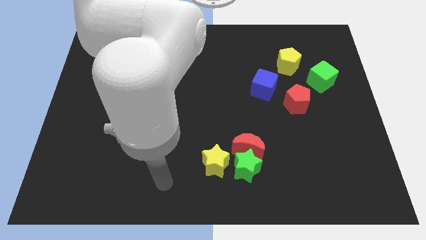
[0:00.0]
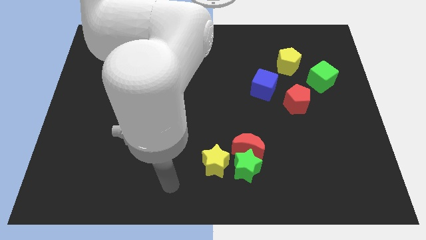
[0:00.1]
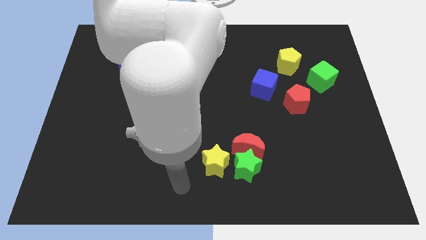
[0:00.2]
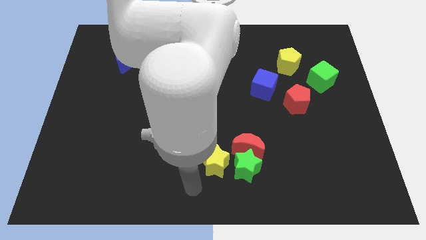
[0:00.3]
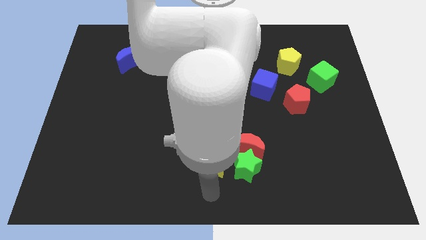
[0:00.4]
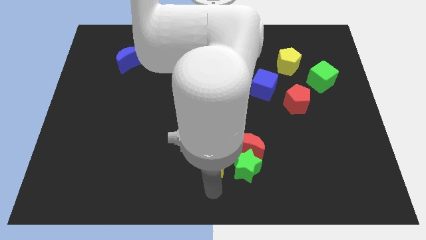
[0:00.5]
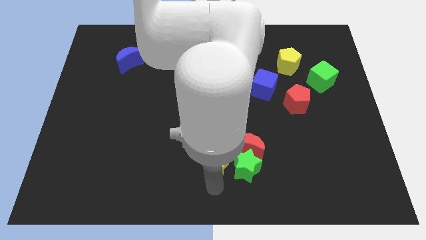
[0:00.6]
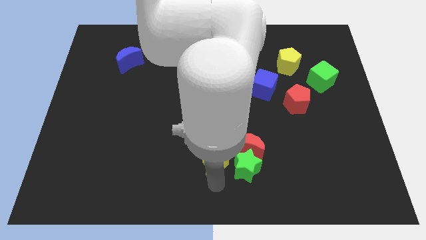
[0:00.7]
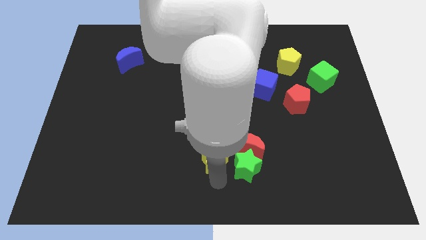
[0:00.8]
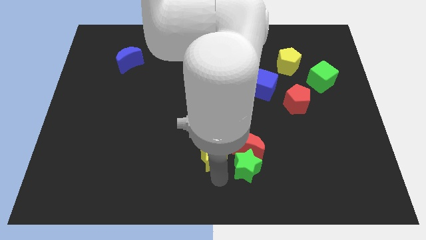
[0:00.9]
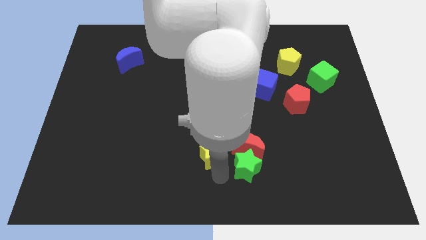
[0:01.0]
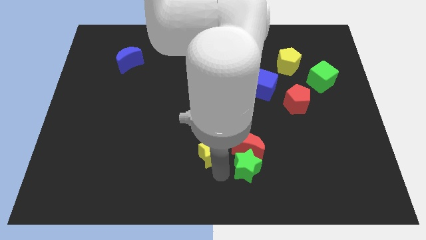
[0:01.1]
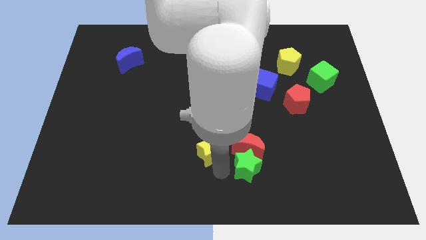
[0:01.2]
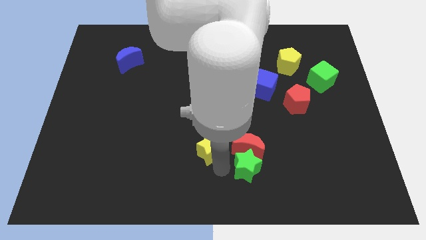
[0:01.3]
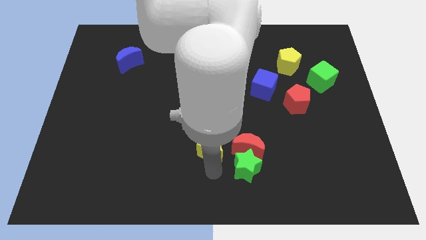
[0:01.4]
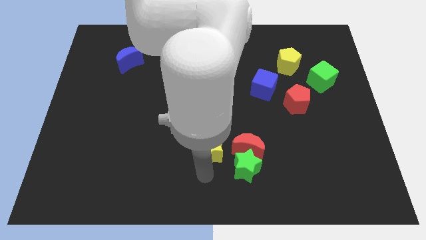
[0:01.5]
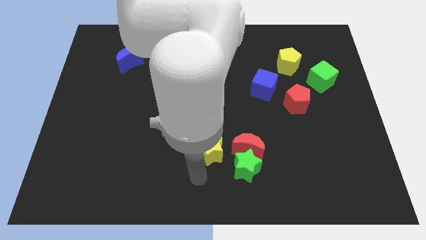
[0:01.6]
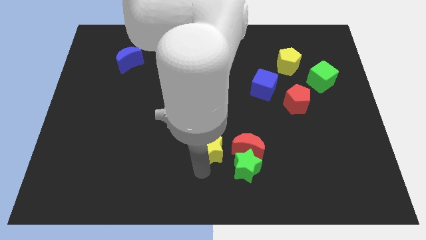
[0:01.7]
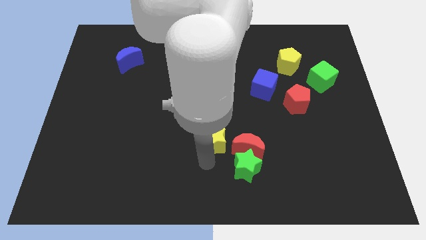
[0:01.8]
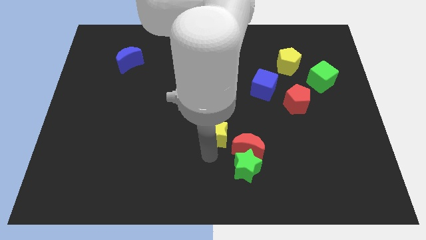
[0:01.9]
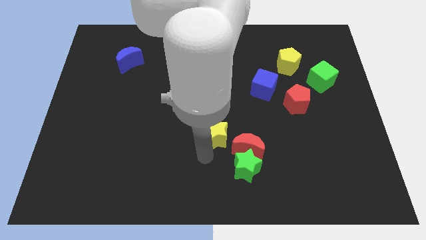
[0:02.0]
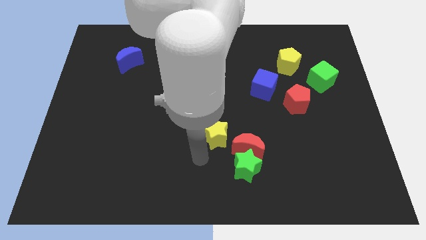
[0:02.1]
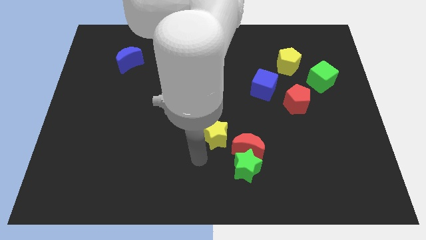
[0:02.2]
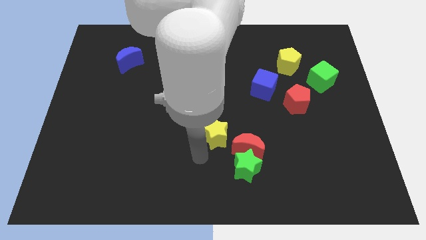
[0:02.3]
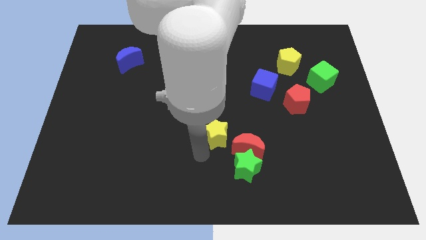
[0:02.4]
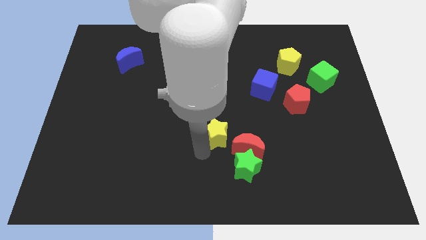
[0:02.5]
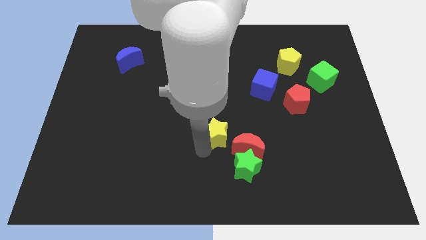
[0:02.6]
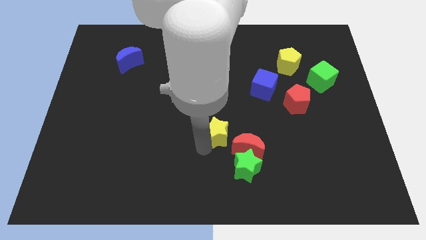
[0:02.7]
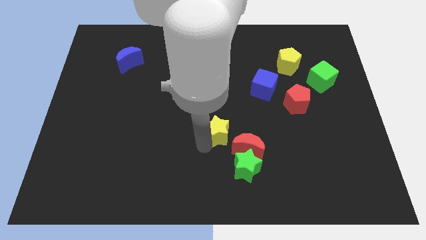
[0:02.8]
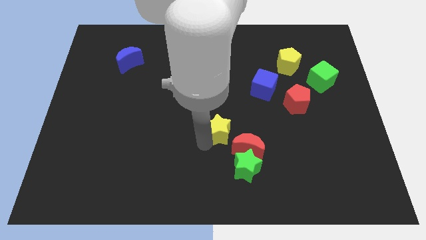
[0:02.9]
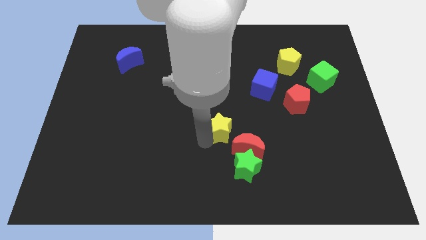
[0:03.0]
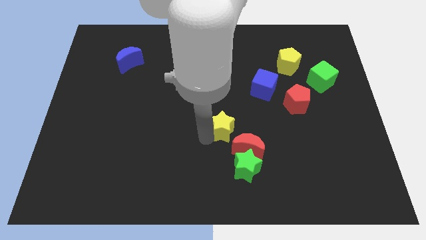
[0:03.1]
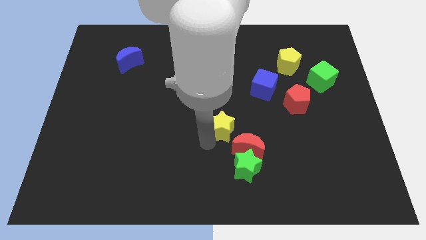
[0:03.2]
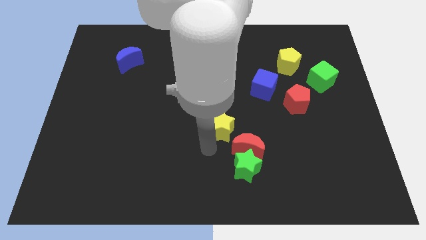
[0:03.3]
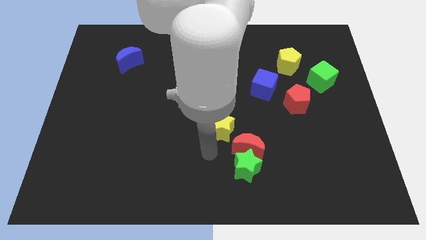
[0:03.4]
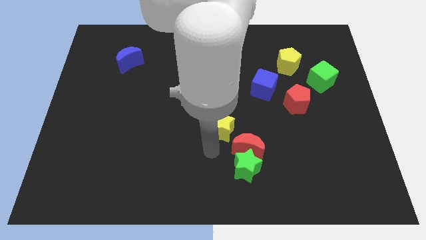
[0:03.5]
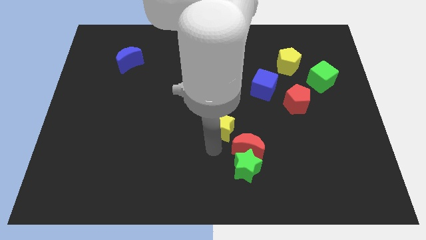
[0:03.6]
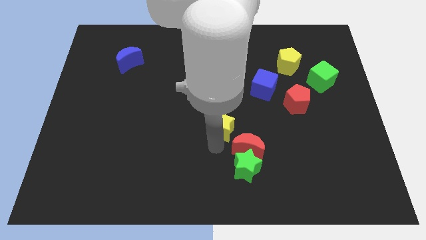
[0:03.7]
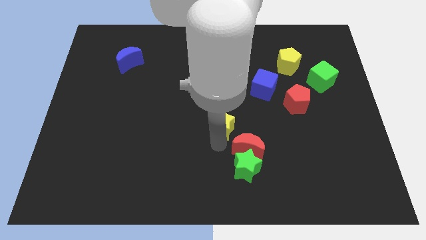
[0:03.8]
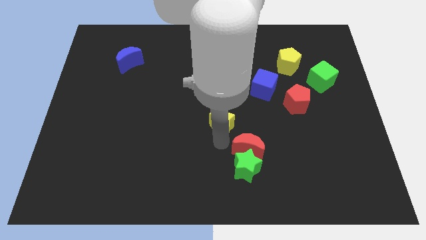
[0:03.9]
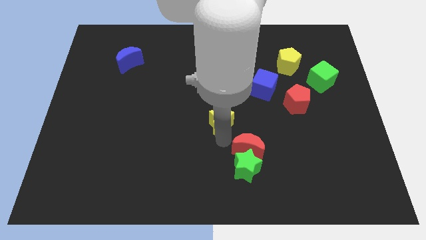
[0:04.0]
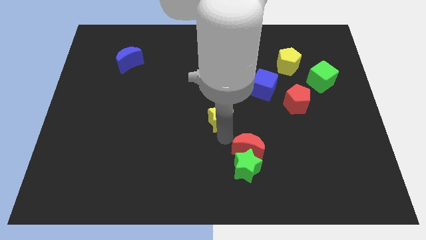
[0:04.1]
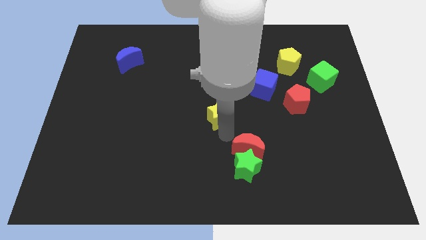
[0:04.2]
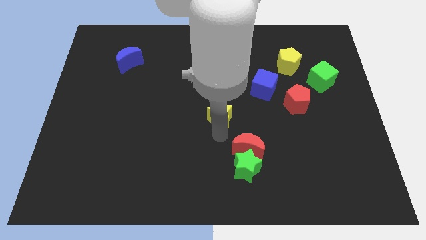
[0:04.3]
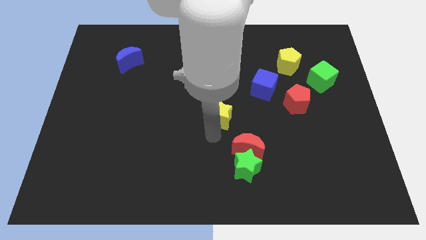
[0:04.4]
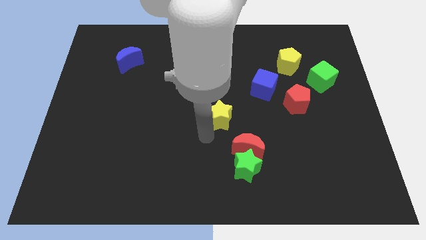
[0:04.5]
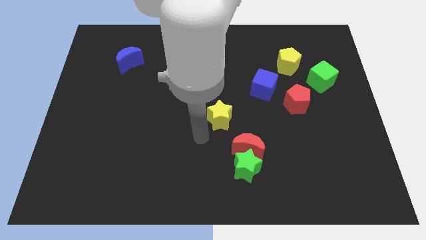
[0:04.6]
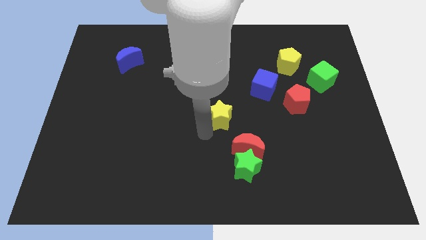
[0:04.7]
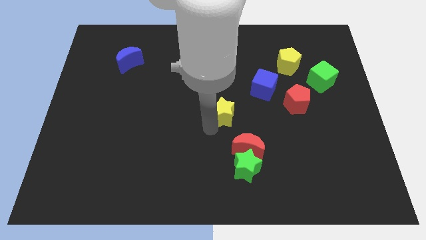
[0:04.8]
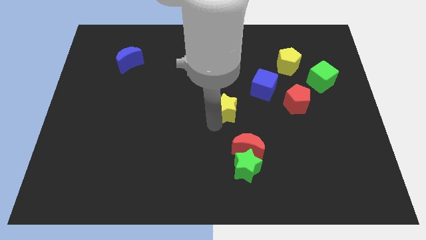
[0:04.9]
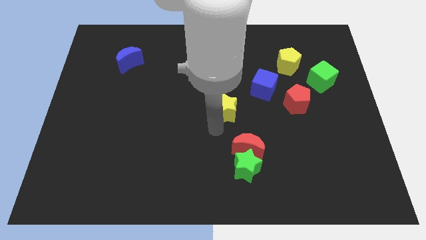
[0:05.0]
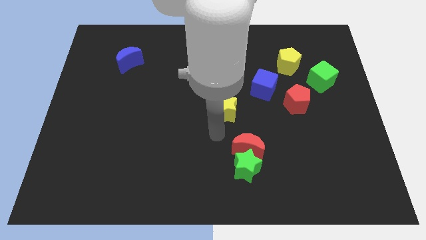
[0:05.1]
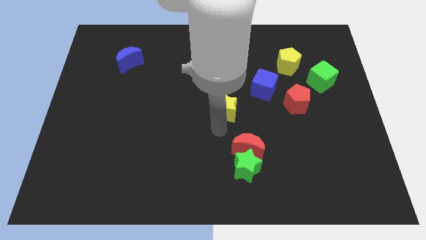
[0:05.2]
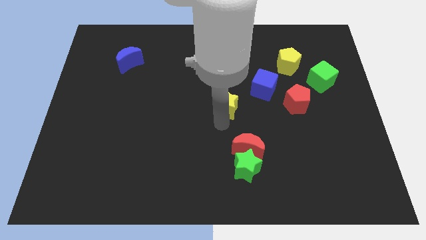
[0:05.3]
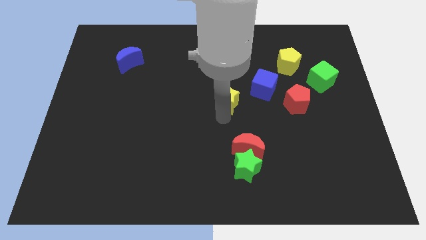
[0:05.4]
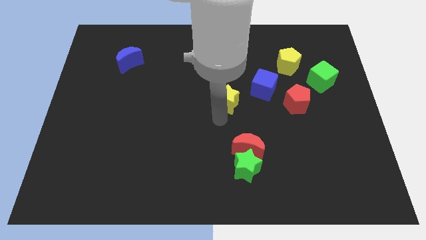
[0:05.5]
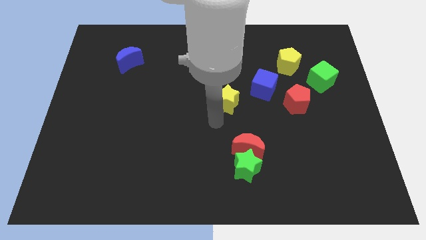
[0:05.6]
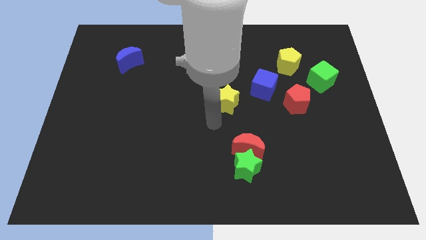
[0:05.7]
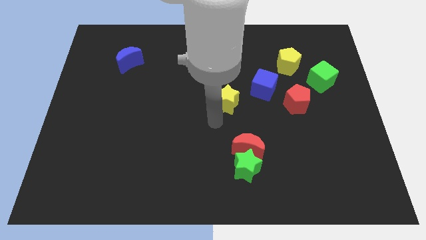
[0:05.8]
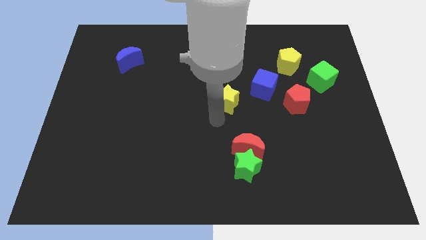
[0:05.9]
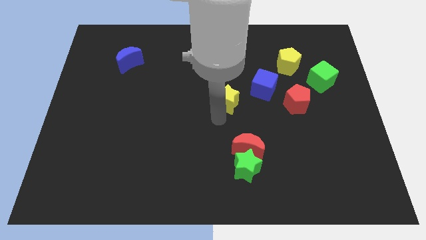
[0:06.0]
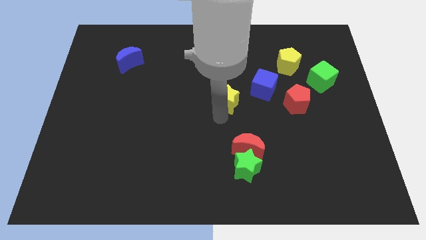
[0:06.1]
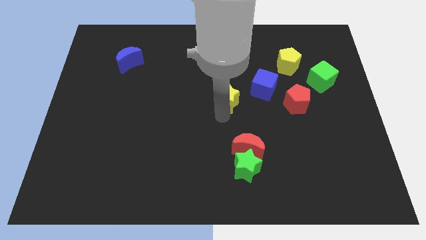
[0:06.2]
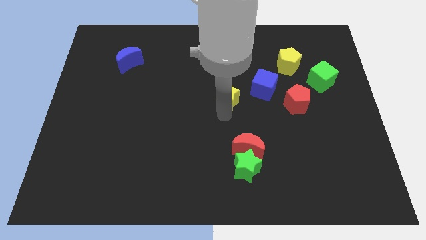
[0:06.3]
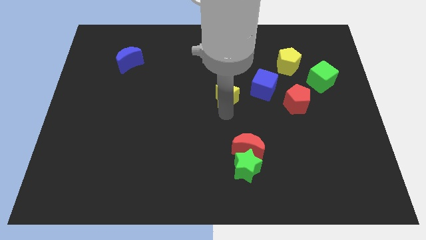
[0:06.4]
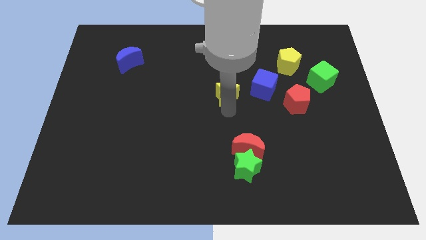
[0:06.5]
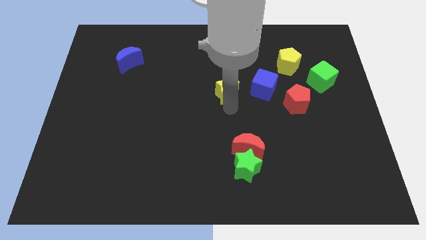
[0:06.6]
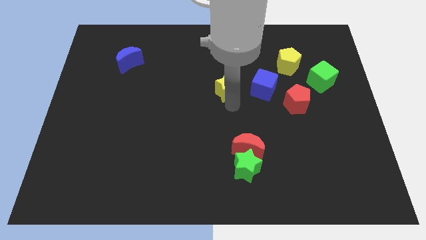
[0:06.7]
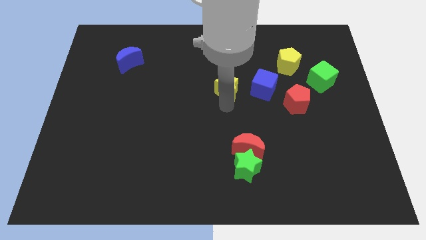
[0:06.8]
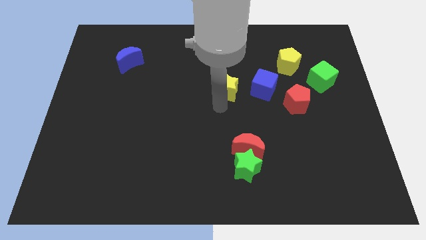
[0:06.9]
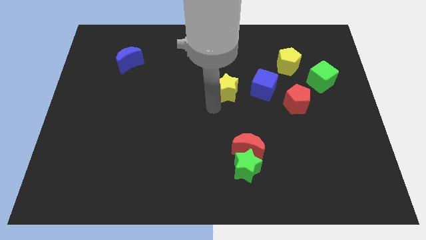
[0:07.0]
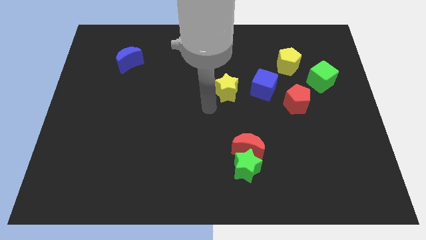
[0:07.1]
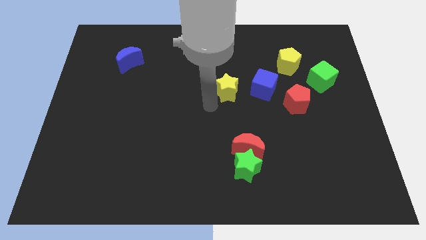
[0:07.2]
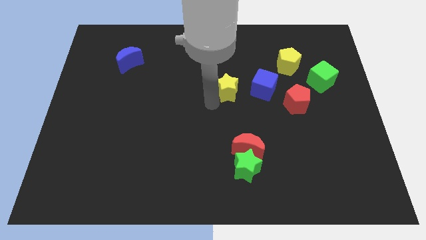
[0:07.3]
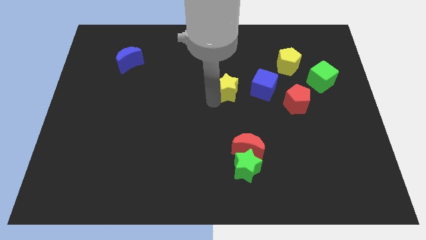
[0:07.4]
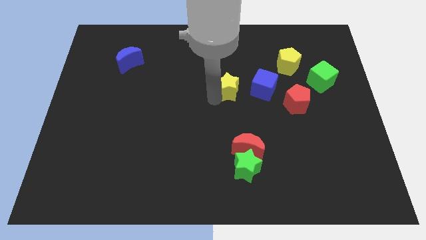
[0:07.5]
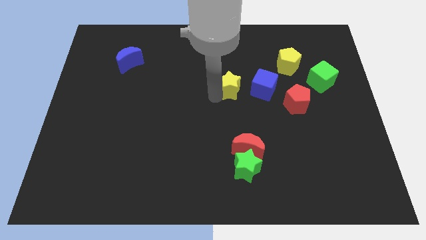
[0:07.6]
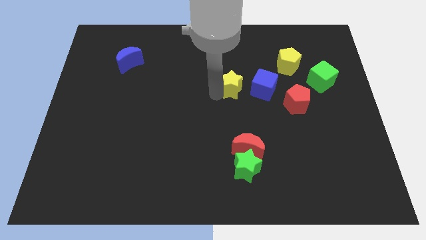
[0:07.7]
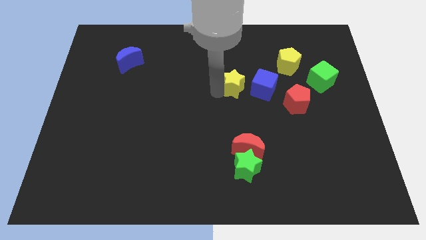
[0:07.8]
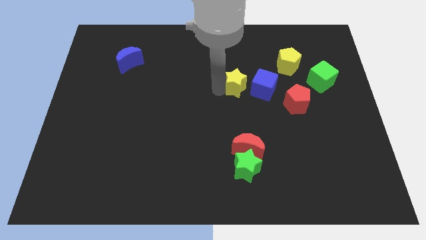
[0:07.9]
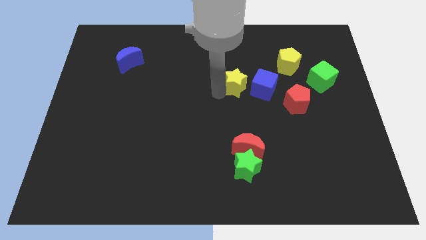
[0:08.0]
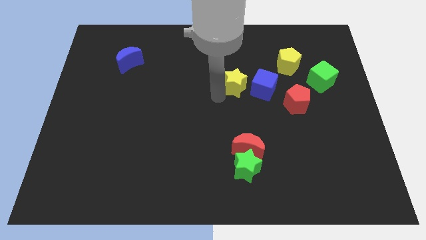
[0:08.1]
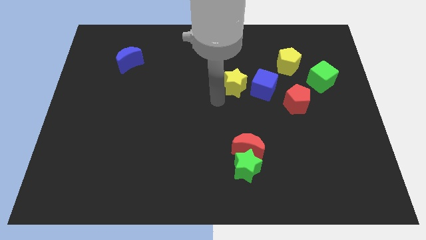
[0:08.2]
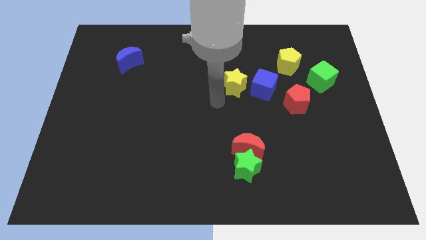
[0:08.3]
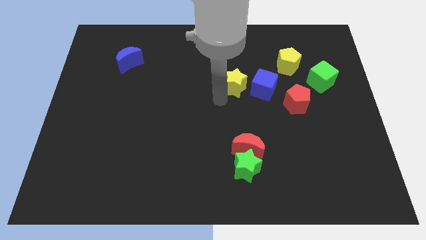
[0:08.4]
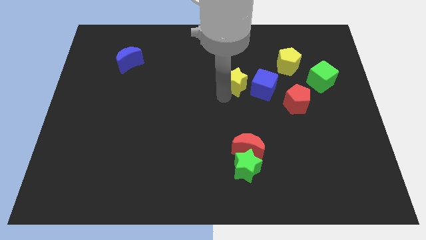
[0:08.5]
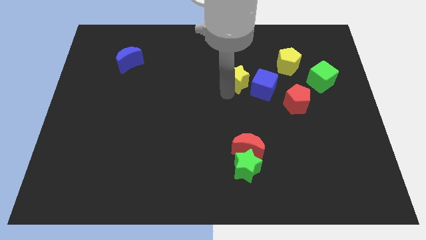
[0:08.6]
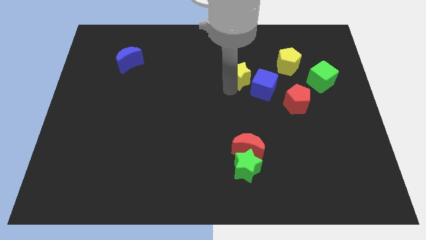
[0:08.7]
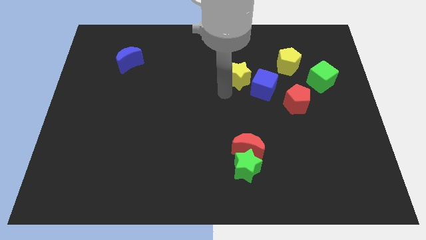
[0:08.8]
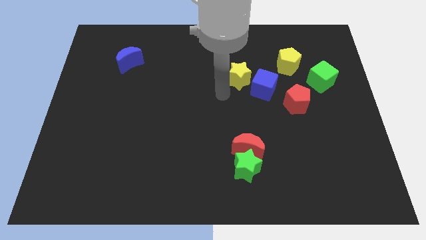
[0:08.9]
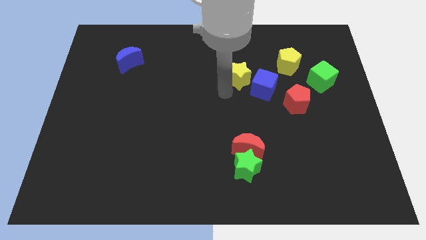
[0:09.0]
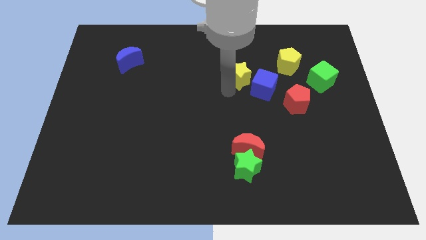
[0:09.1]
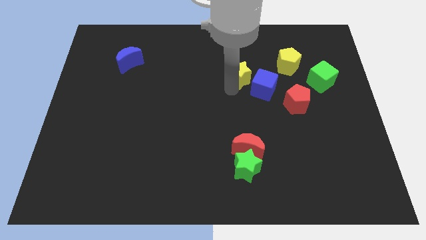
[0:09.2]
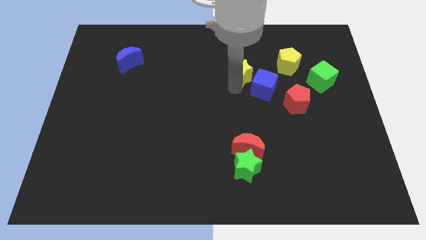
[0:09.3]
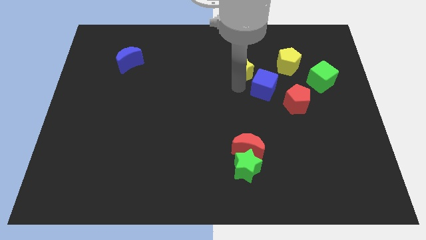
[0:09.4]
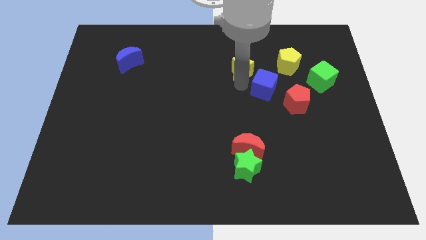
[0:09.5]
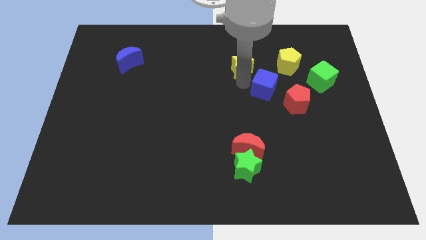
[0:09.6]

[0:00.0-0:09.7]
put the yellow star above the blue cube
